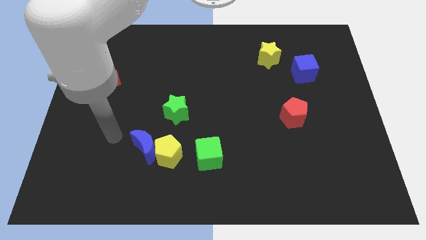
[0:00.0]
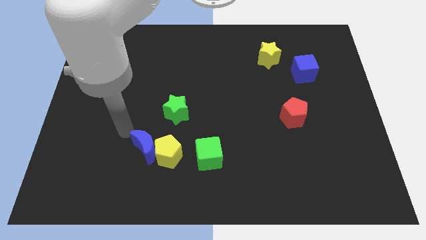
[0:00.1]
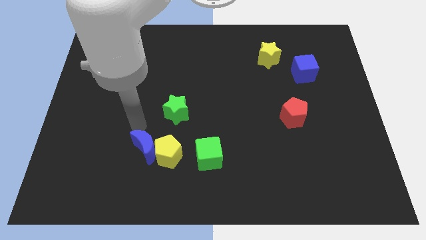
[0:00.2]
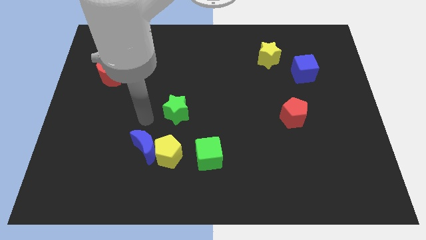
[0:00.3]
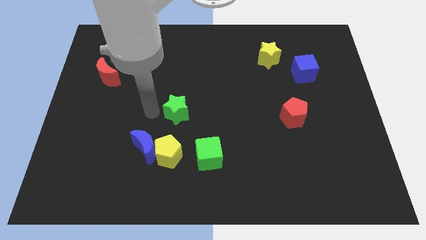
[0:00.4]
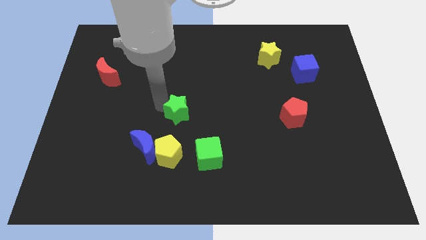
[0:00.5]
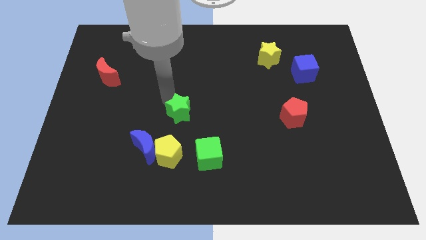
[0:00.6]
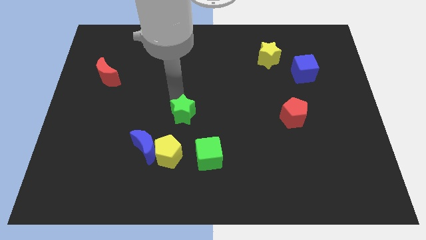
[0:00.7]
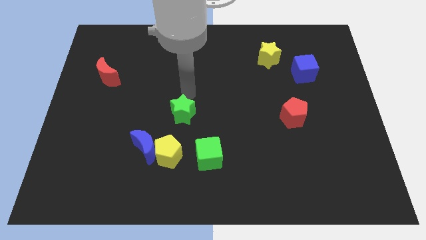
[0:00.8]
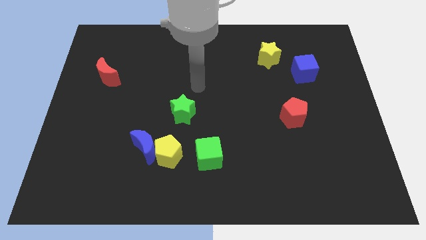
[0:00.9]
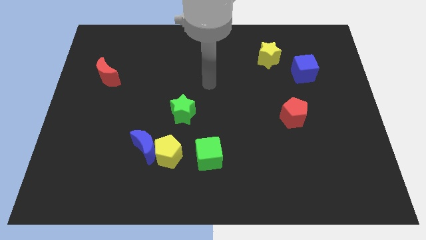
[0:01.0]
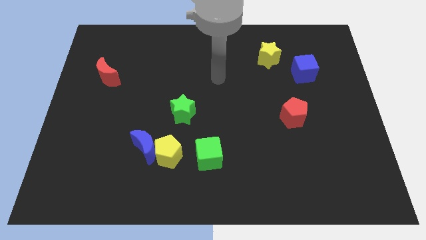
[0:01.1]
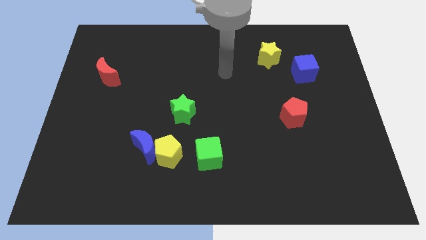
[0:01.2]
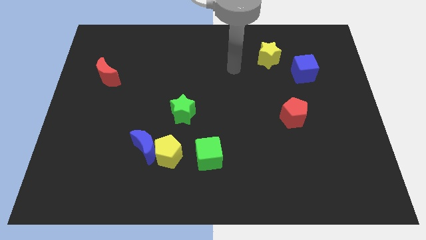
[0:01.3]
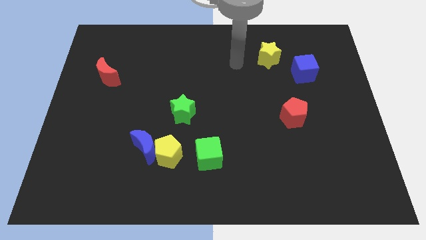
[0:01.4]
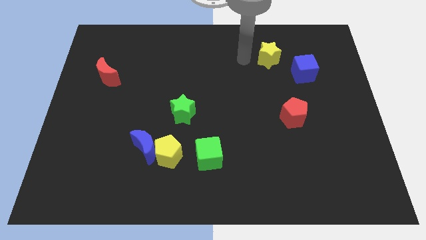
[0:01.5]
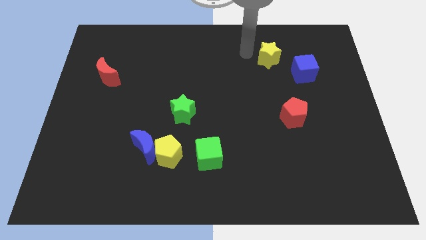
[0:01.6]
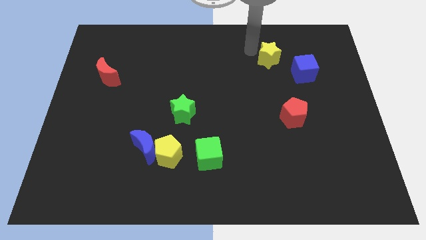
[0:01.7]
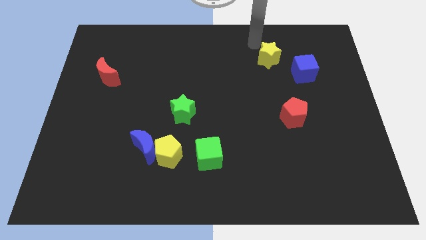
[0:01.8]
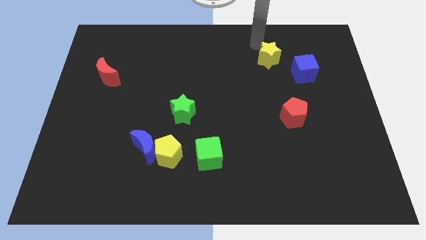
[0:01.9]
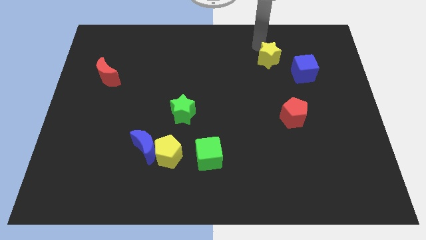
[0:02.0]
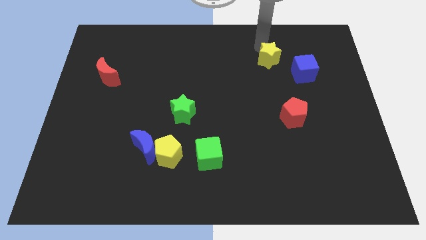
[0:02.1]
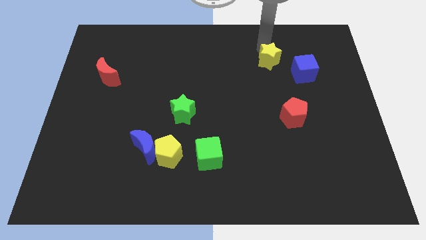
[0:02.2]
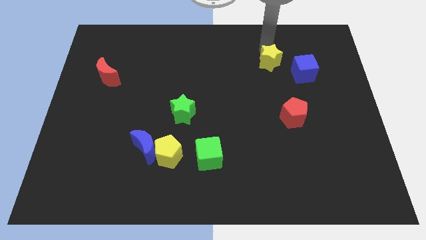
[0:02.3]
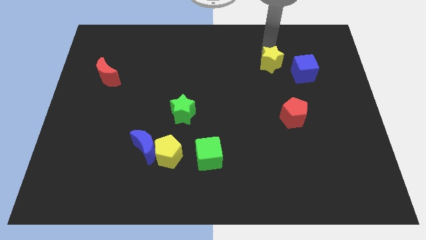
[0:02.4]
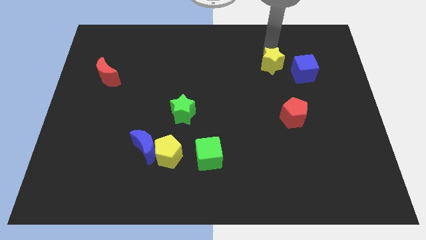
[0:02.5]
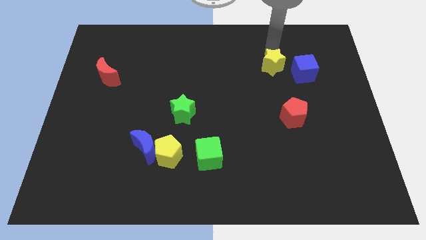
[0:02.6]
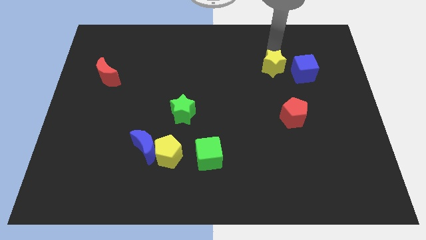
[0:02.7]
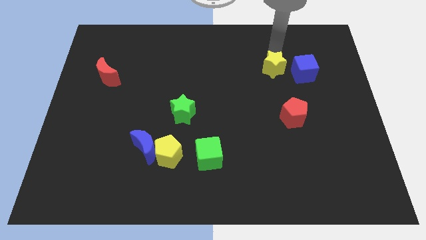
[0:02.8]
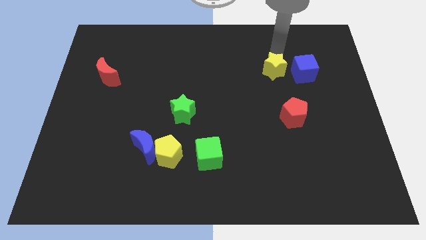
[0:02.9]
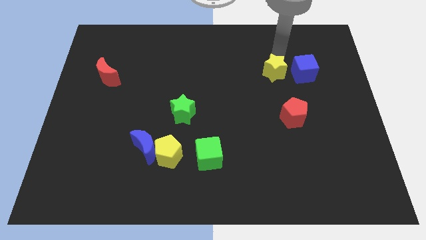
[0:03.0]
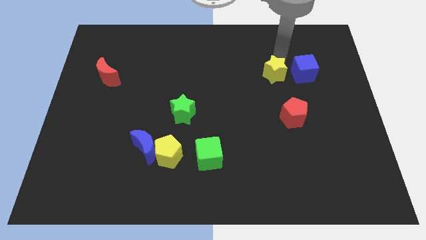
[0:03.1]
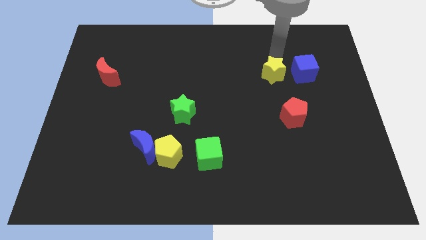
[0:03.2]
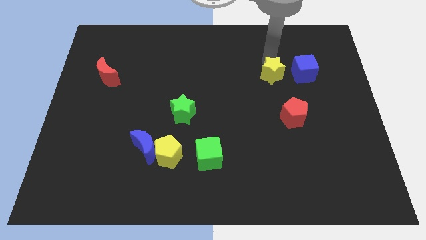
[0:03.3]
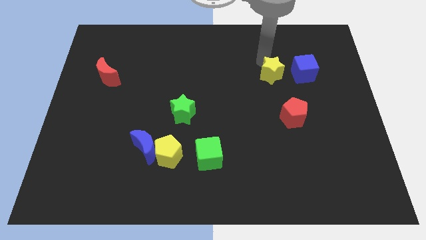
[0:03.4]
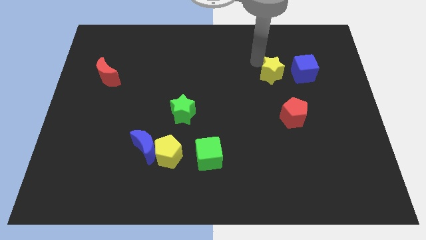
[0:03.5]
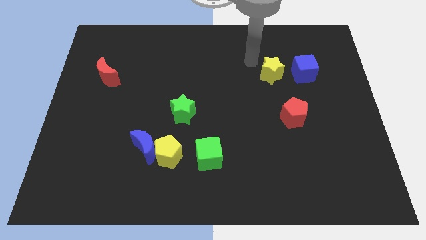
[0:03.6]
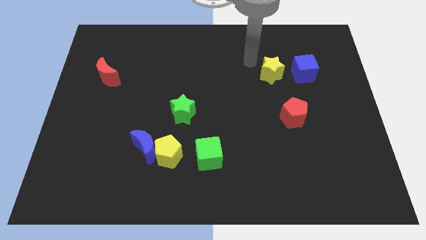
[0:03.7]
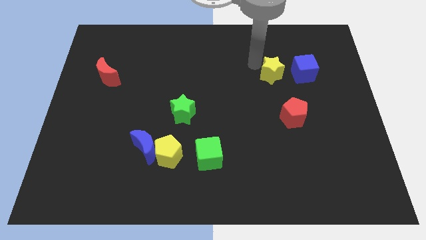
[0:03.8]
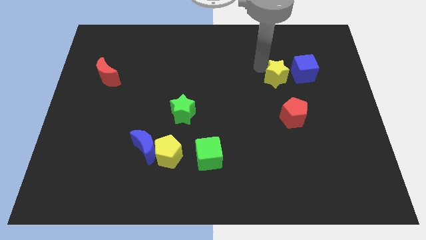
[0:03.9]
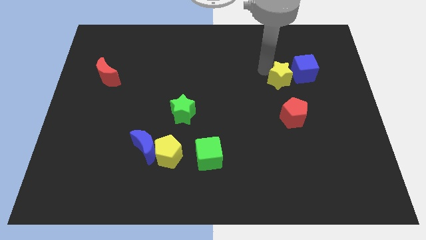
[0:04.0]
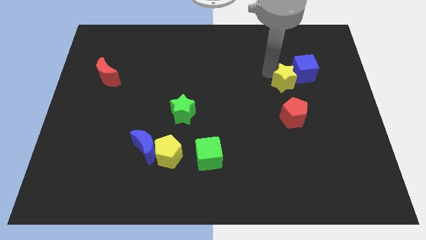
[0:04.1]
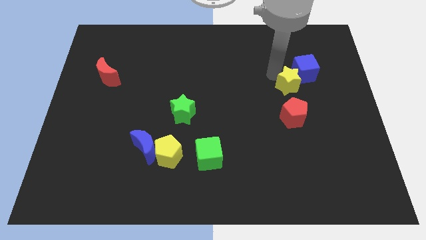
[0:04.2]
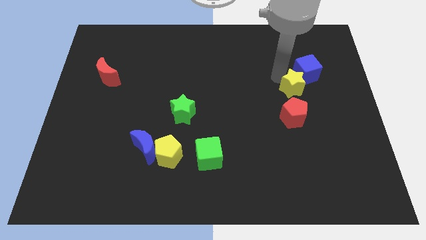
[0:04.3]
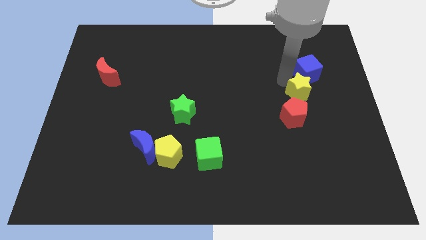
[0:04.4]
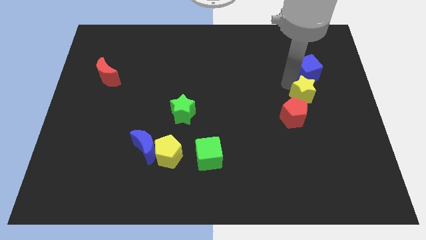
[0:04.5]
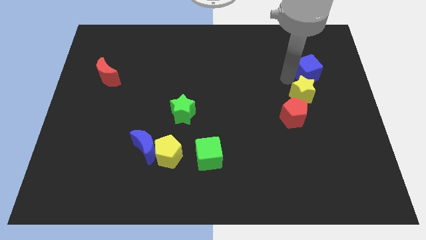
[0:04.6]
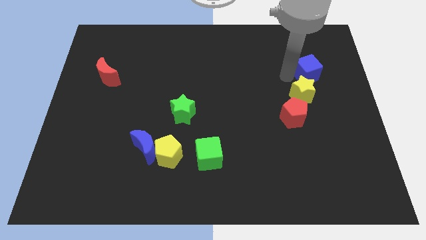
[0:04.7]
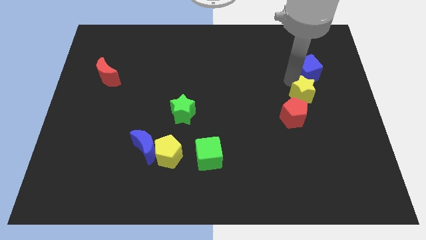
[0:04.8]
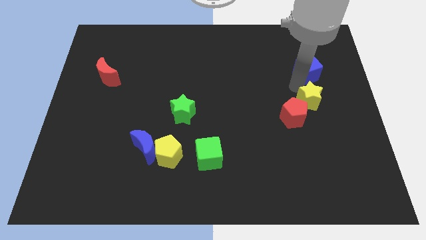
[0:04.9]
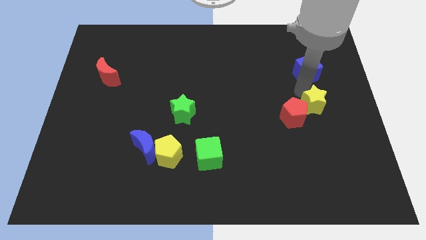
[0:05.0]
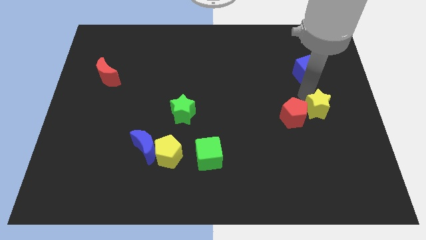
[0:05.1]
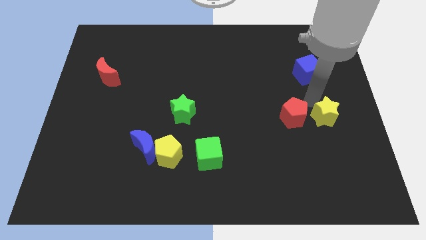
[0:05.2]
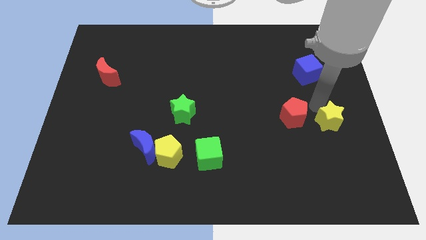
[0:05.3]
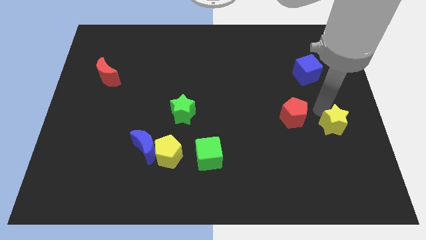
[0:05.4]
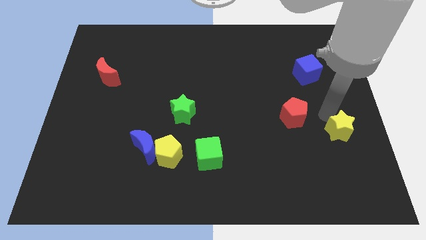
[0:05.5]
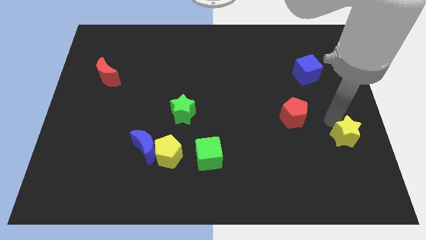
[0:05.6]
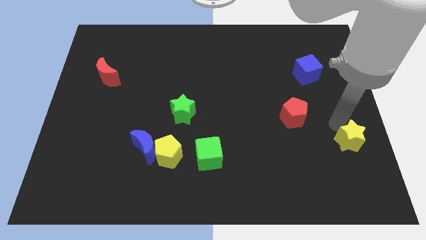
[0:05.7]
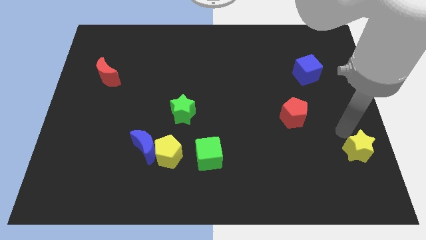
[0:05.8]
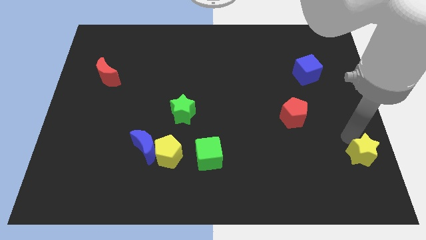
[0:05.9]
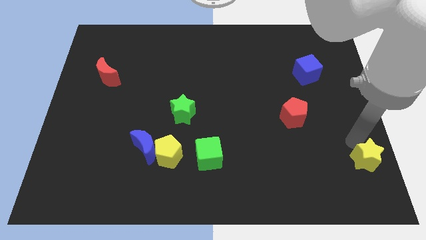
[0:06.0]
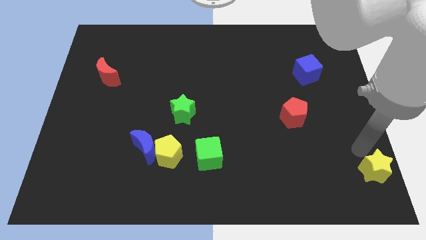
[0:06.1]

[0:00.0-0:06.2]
slide the yellow star to the lower right corner

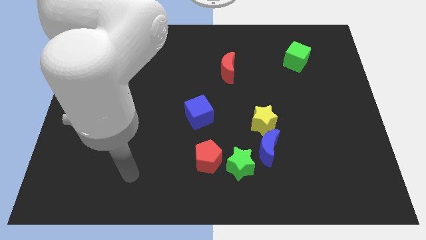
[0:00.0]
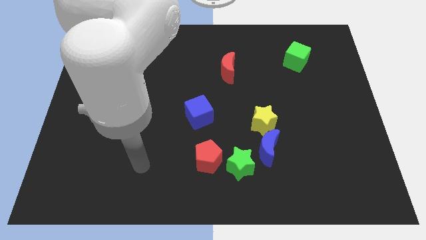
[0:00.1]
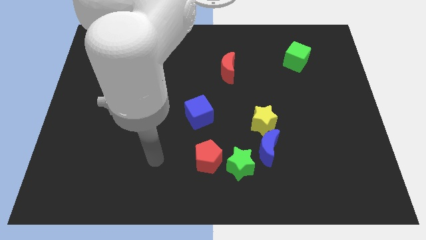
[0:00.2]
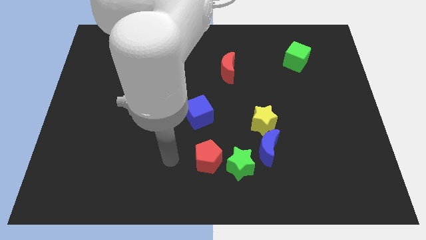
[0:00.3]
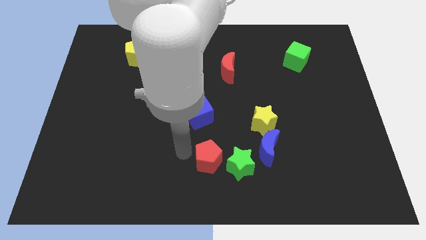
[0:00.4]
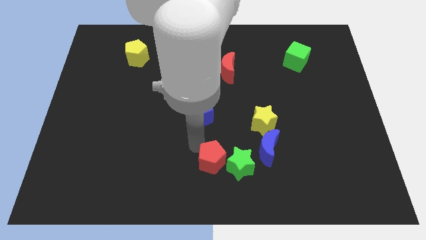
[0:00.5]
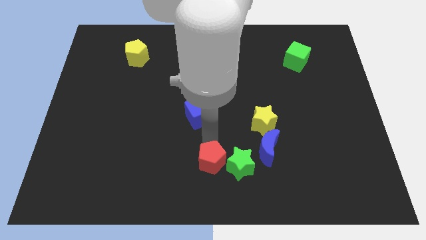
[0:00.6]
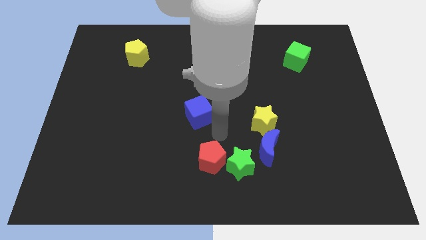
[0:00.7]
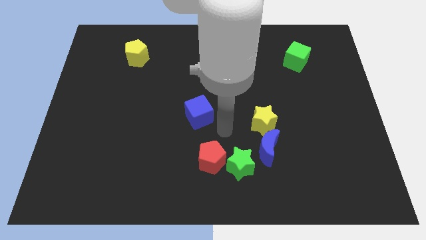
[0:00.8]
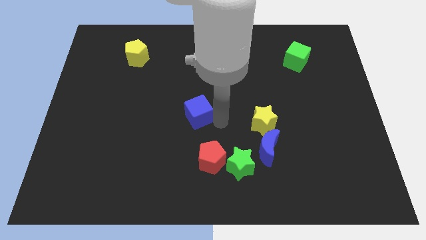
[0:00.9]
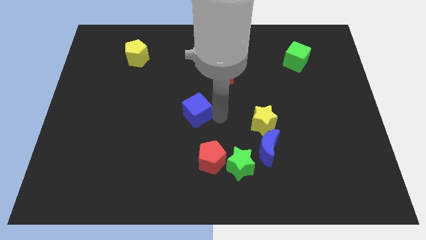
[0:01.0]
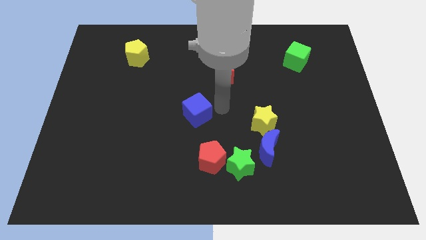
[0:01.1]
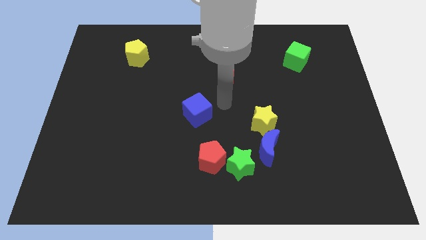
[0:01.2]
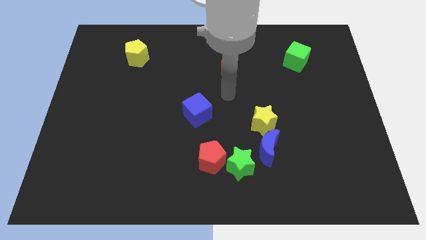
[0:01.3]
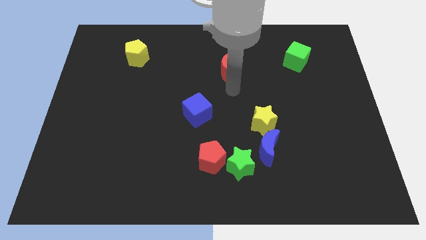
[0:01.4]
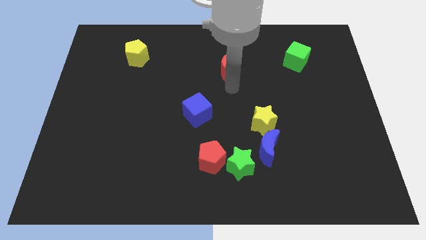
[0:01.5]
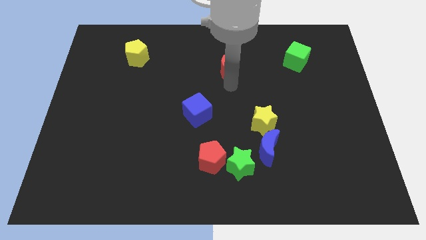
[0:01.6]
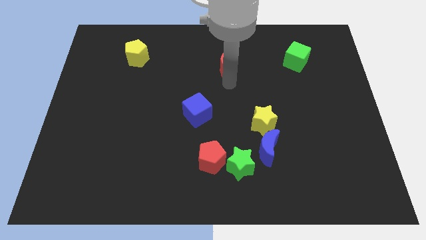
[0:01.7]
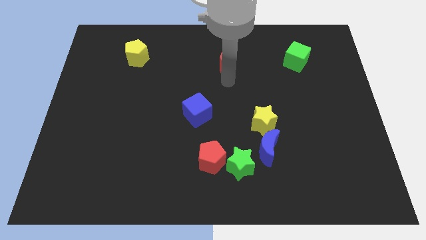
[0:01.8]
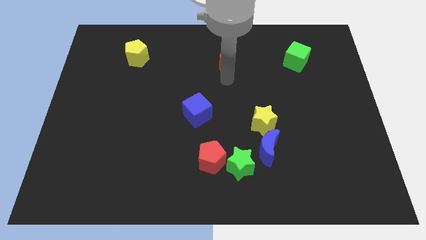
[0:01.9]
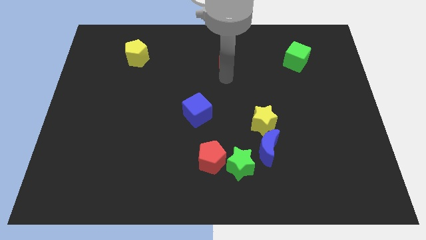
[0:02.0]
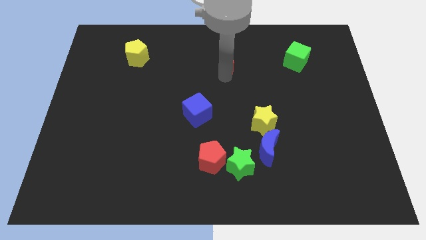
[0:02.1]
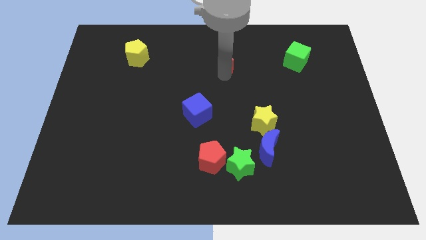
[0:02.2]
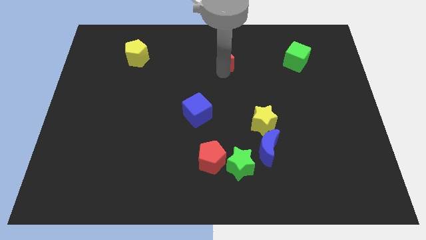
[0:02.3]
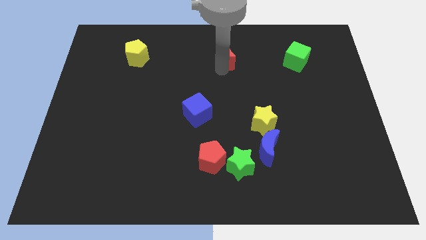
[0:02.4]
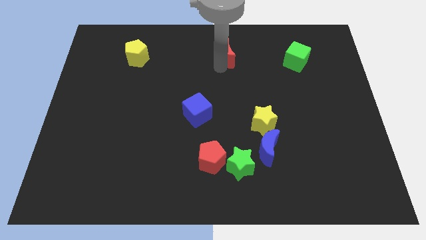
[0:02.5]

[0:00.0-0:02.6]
move the red moon to the top side
